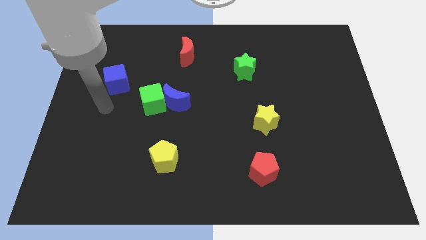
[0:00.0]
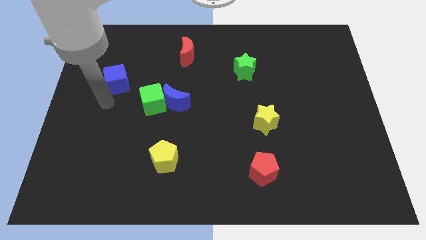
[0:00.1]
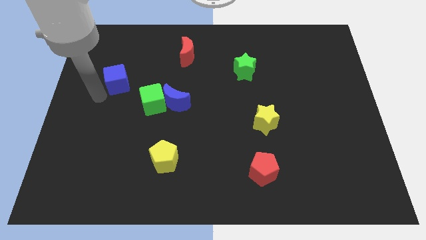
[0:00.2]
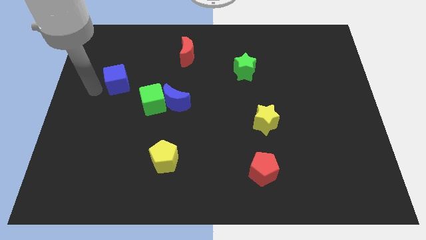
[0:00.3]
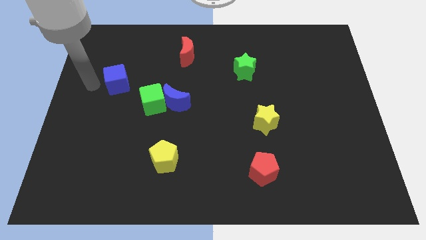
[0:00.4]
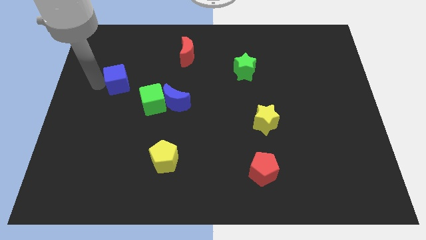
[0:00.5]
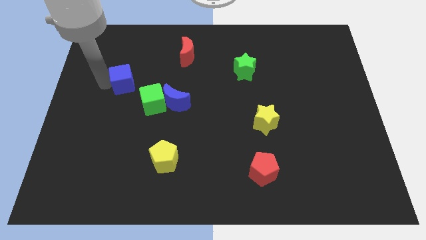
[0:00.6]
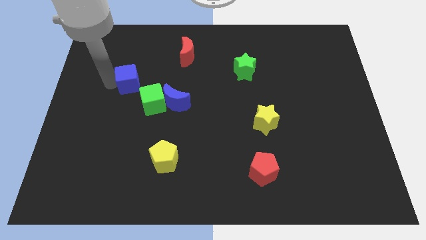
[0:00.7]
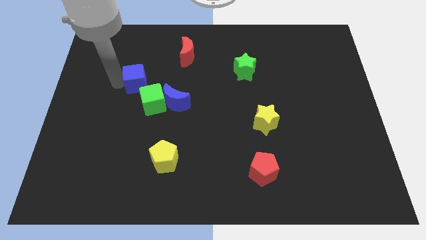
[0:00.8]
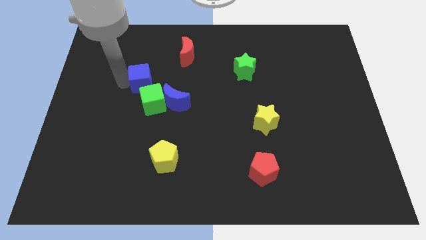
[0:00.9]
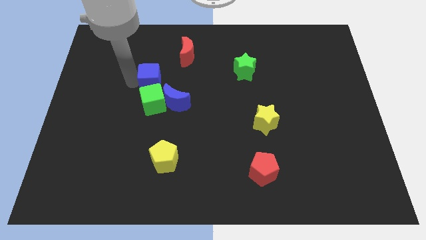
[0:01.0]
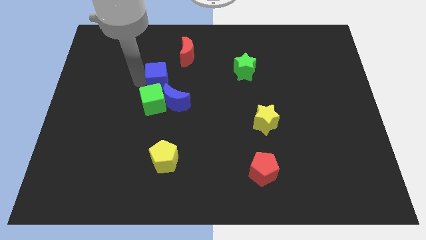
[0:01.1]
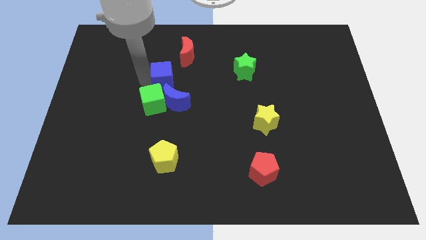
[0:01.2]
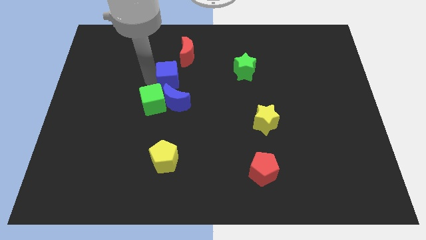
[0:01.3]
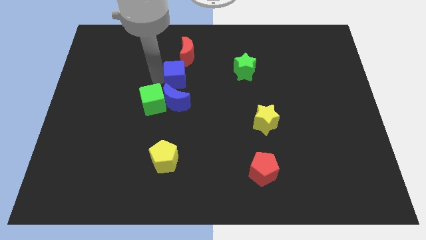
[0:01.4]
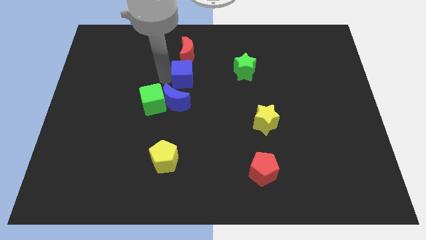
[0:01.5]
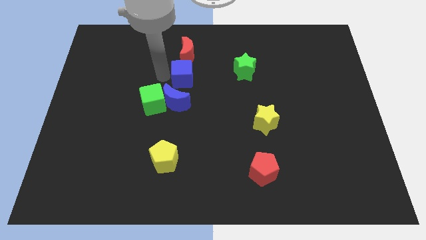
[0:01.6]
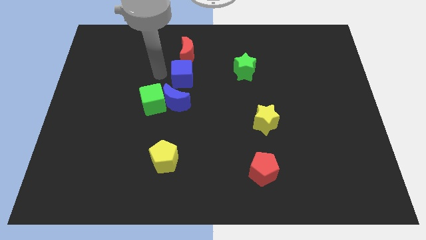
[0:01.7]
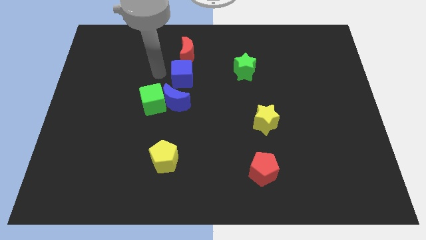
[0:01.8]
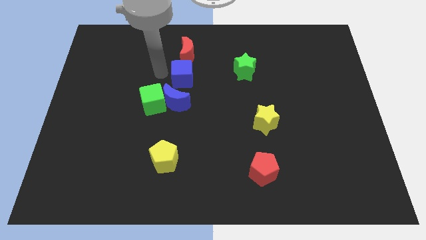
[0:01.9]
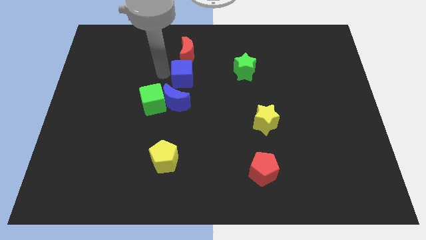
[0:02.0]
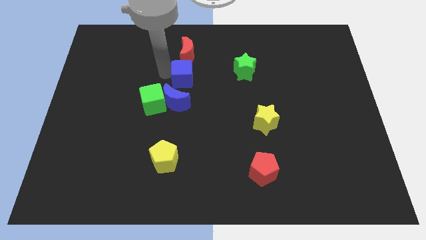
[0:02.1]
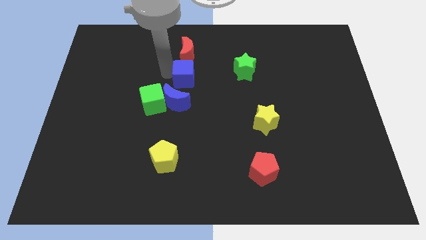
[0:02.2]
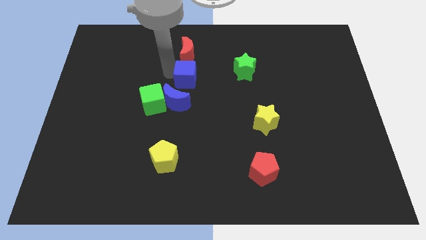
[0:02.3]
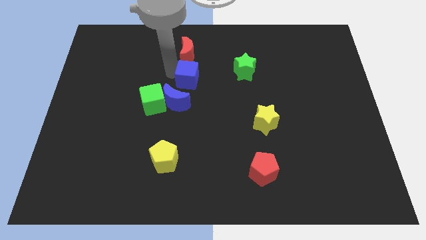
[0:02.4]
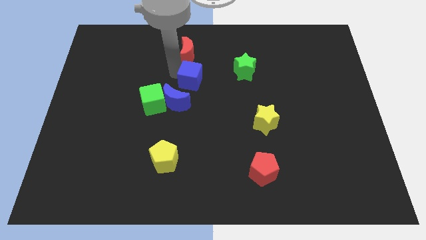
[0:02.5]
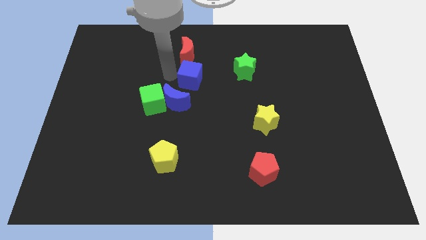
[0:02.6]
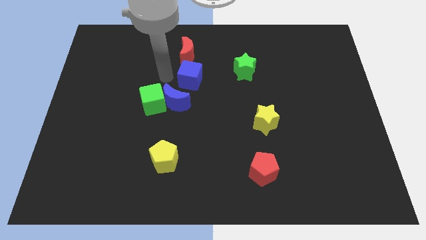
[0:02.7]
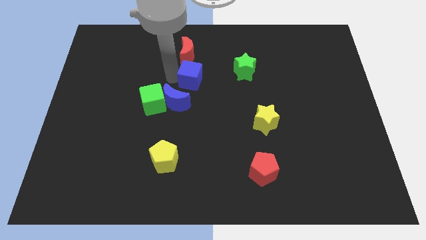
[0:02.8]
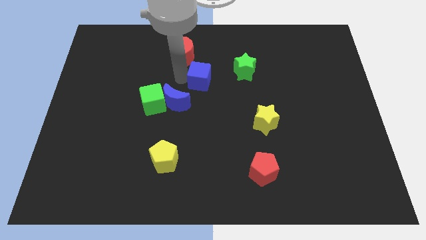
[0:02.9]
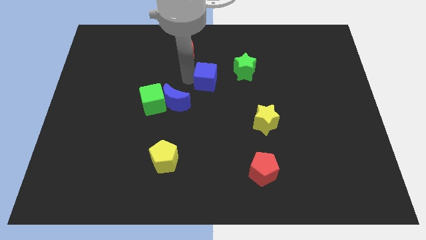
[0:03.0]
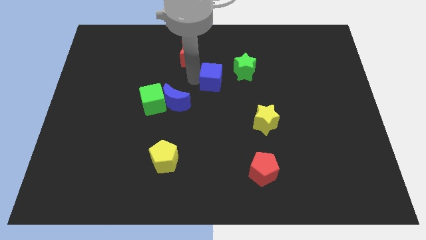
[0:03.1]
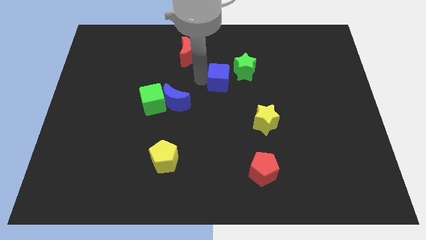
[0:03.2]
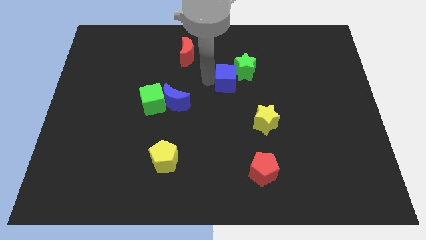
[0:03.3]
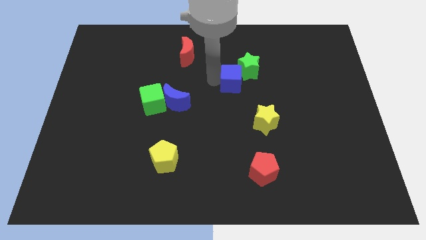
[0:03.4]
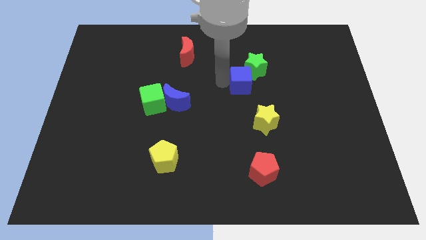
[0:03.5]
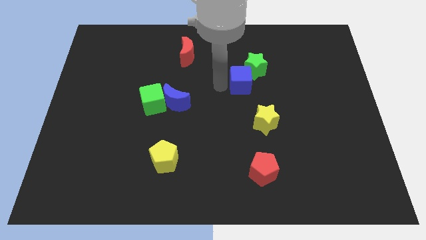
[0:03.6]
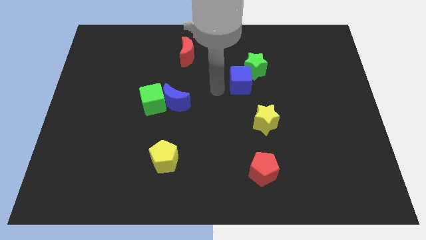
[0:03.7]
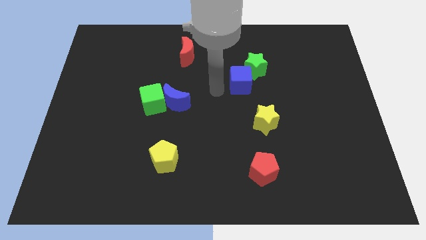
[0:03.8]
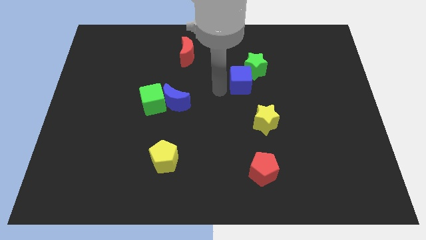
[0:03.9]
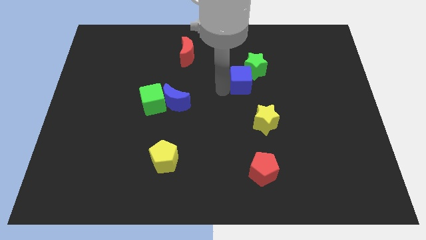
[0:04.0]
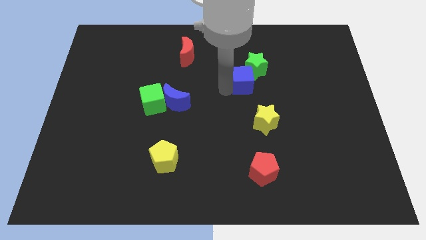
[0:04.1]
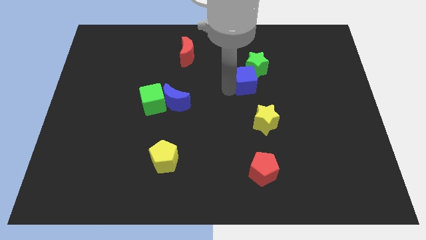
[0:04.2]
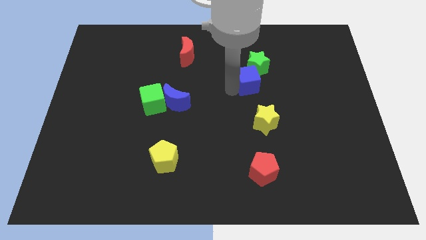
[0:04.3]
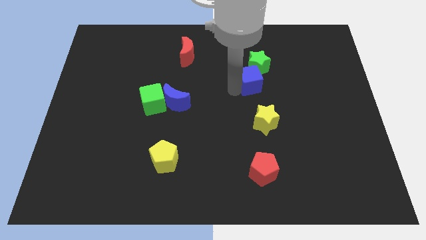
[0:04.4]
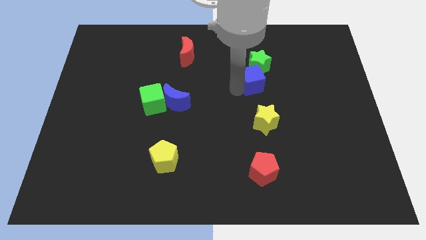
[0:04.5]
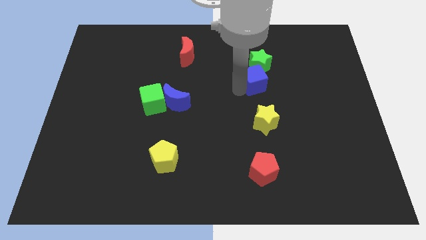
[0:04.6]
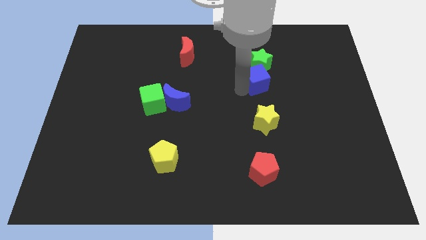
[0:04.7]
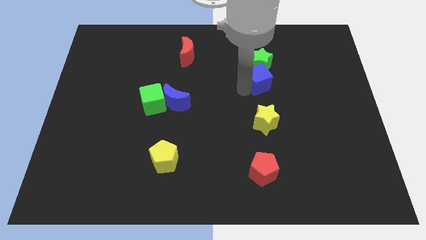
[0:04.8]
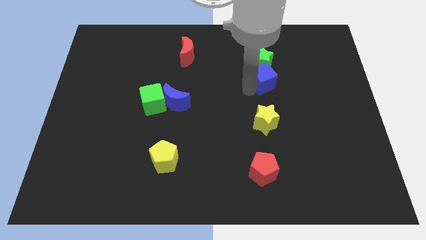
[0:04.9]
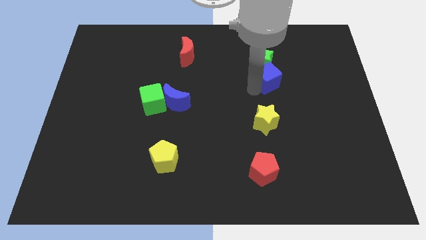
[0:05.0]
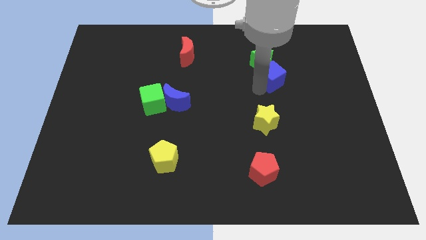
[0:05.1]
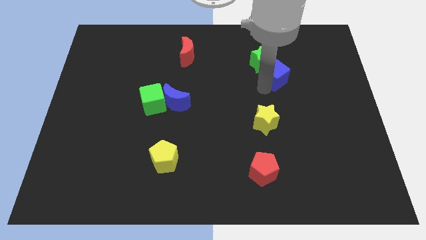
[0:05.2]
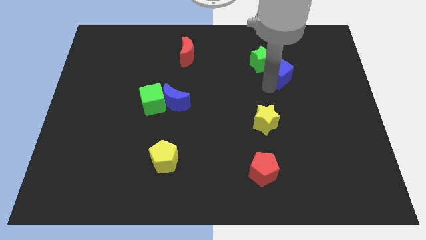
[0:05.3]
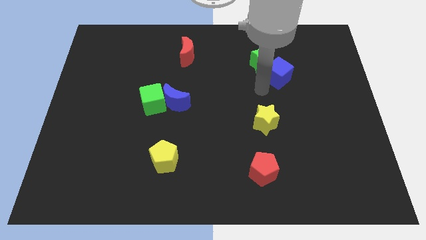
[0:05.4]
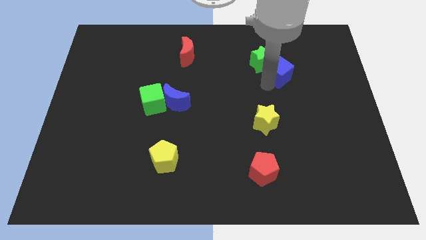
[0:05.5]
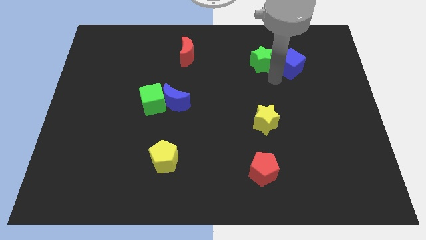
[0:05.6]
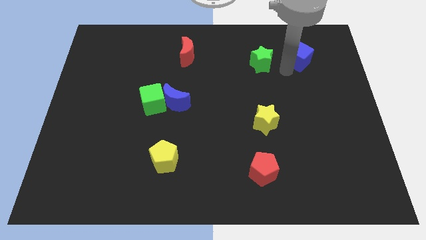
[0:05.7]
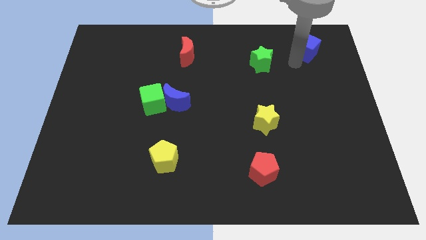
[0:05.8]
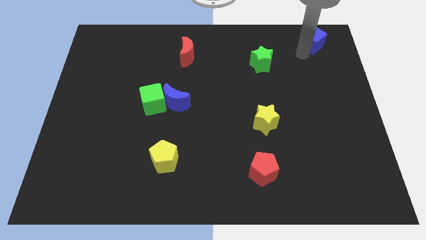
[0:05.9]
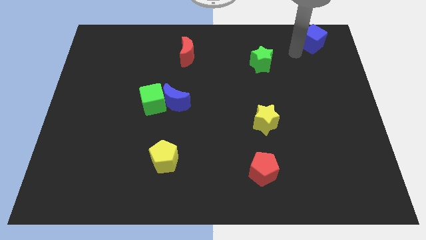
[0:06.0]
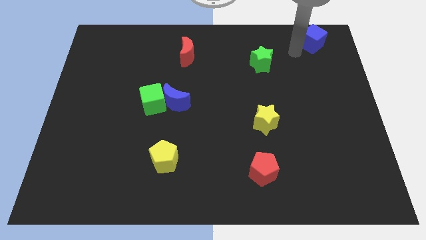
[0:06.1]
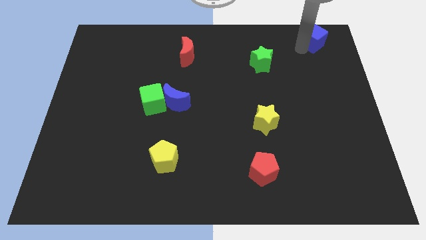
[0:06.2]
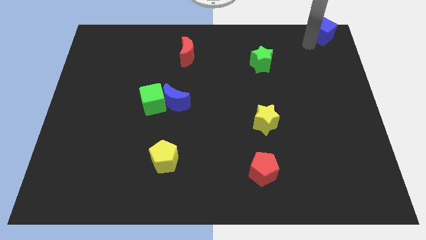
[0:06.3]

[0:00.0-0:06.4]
slide the blue cube to the top right of the board

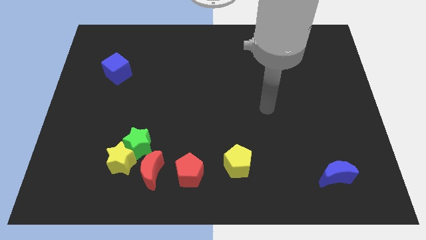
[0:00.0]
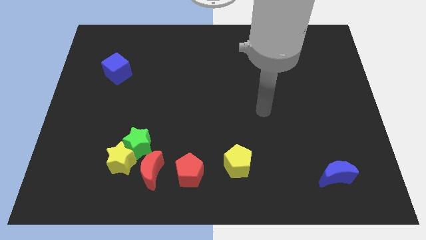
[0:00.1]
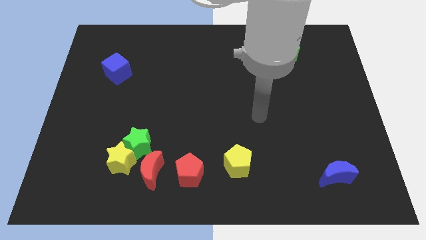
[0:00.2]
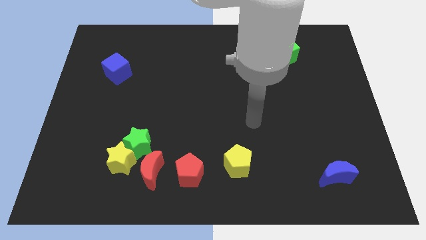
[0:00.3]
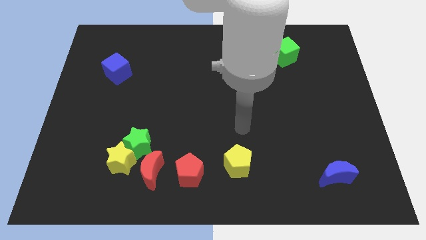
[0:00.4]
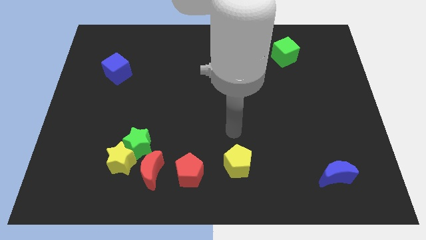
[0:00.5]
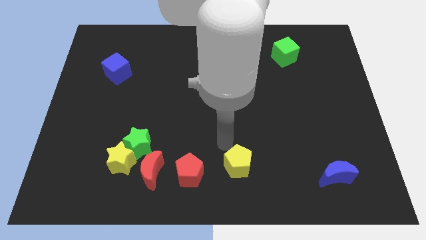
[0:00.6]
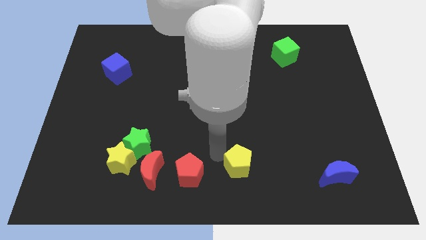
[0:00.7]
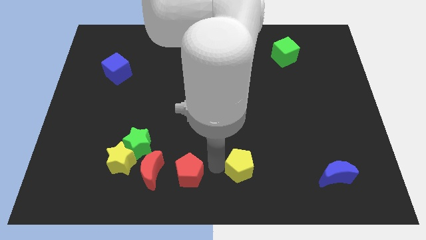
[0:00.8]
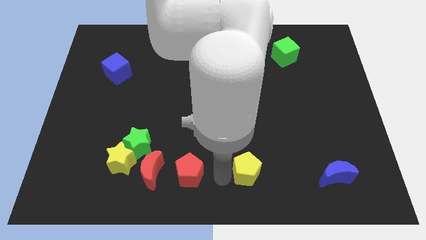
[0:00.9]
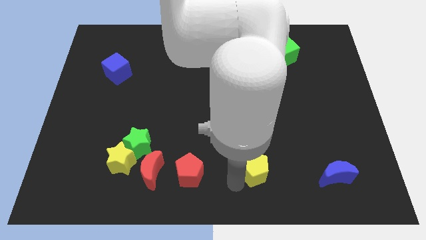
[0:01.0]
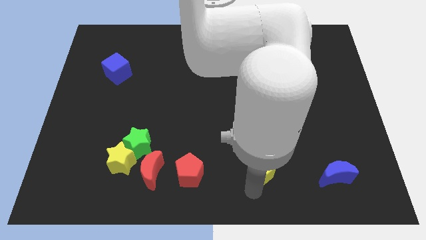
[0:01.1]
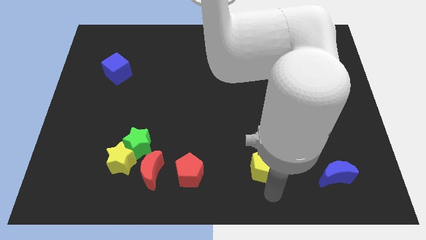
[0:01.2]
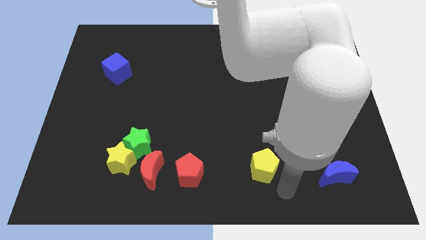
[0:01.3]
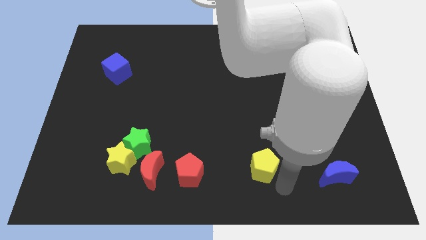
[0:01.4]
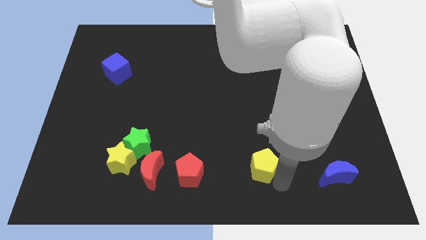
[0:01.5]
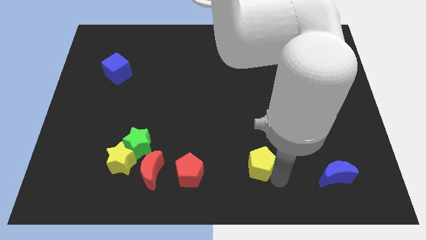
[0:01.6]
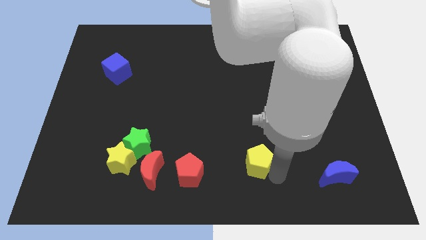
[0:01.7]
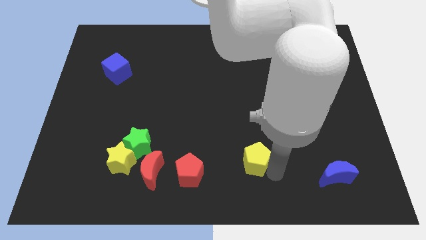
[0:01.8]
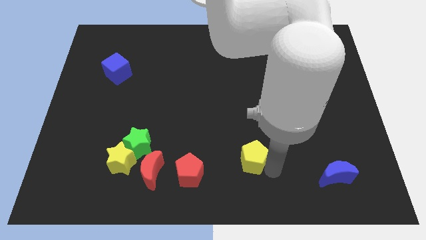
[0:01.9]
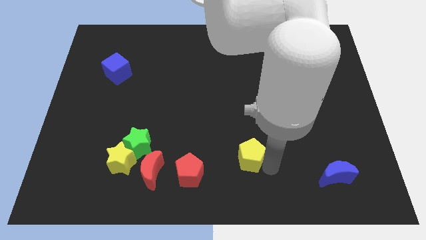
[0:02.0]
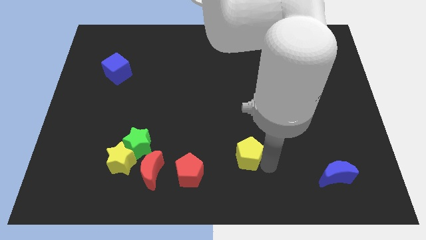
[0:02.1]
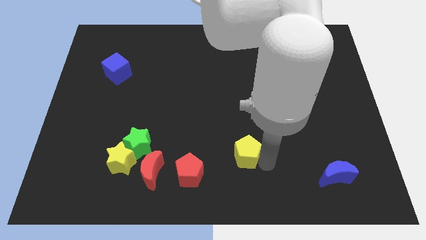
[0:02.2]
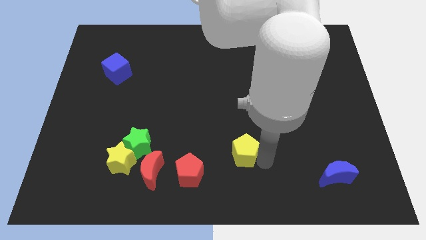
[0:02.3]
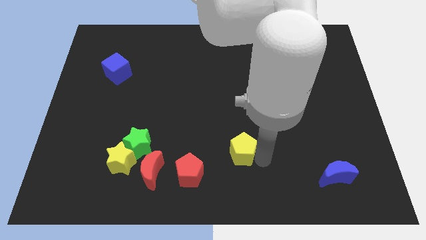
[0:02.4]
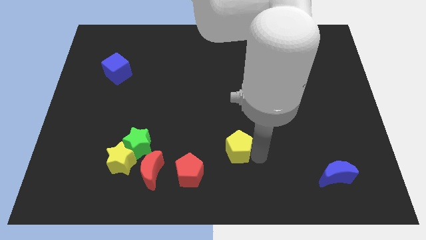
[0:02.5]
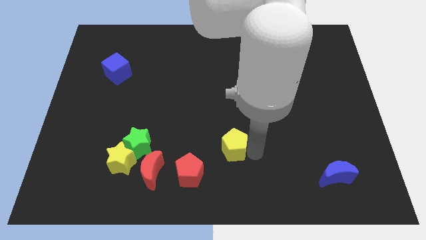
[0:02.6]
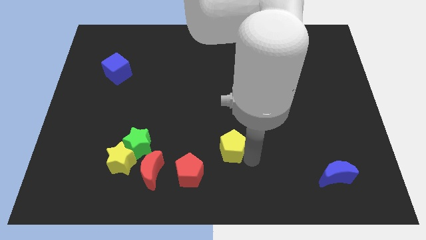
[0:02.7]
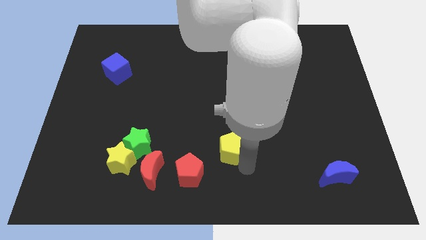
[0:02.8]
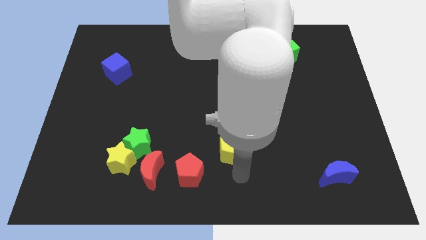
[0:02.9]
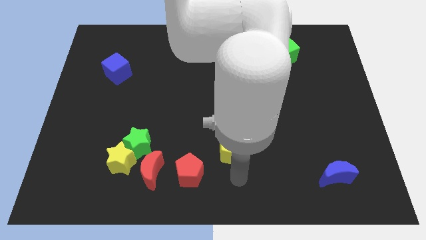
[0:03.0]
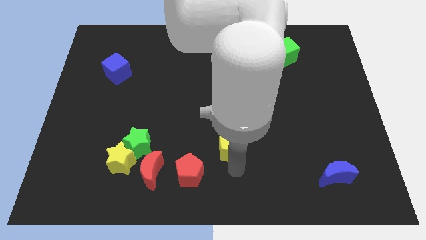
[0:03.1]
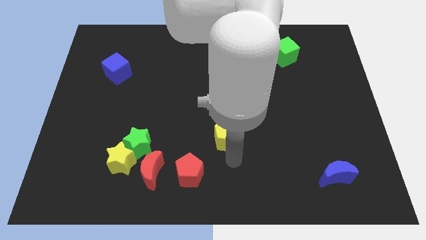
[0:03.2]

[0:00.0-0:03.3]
push the yellow pentagon to the center
